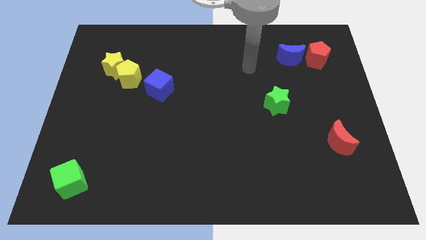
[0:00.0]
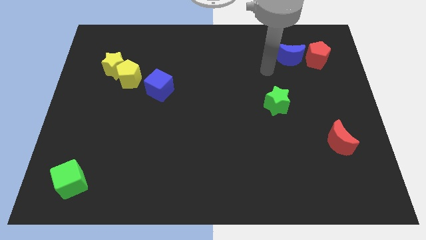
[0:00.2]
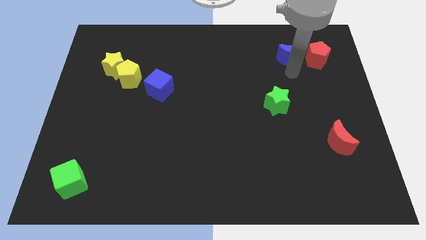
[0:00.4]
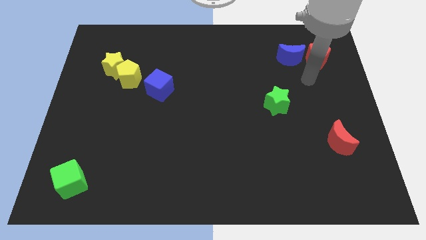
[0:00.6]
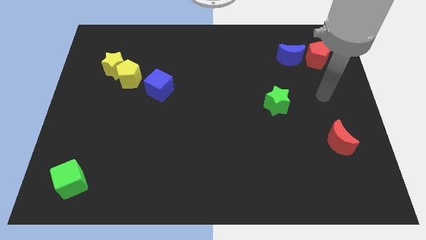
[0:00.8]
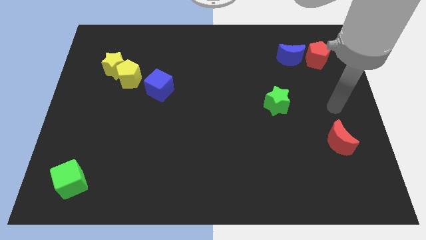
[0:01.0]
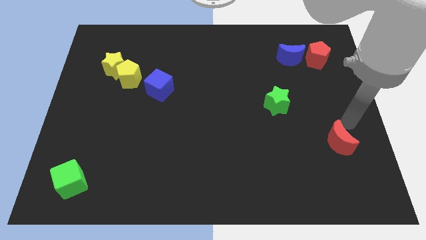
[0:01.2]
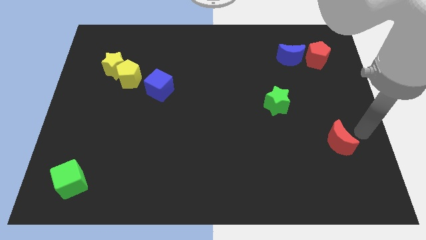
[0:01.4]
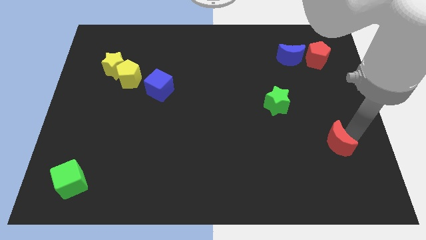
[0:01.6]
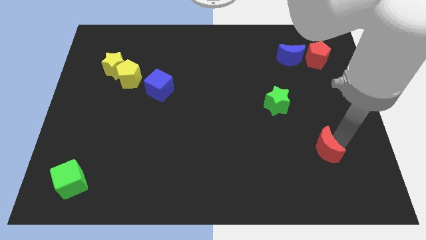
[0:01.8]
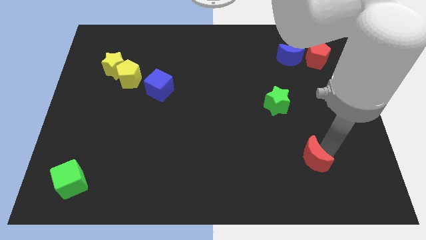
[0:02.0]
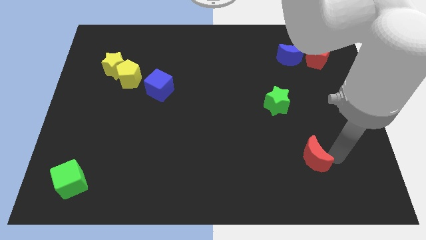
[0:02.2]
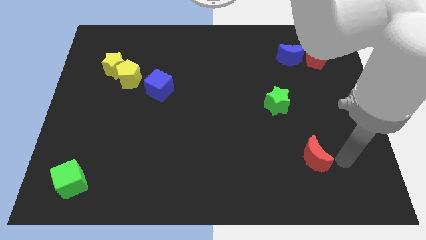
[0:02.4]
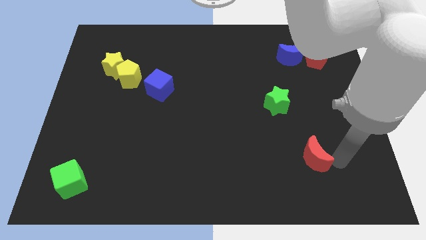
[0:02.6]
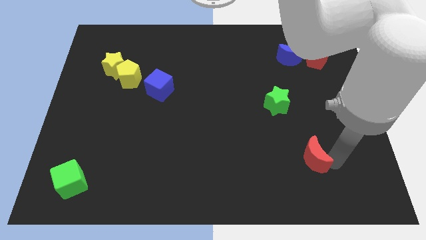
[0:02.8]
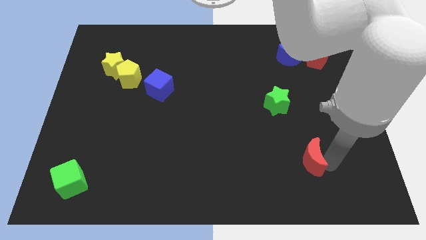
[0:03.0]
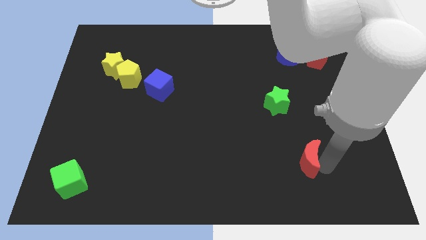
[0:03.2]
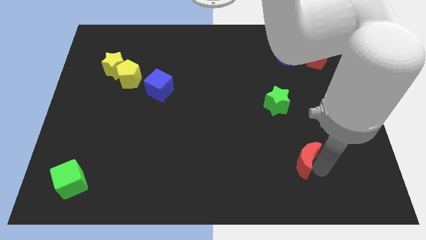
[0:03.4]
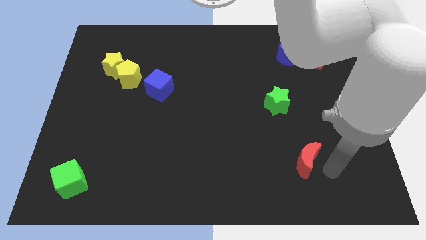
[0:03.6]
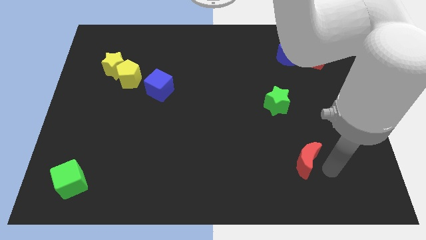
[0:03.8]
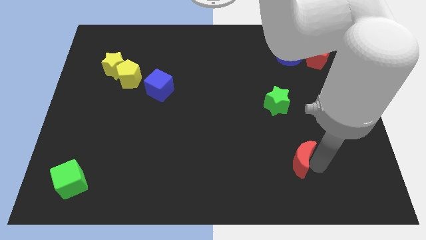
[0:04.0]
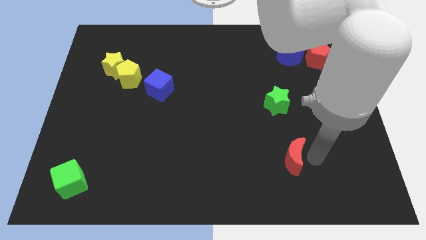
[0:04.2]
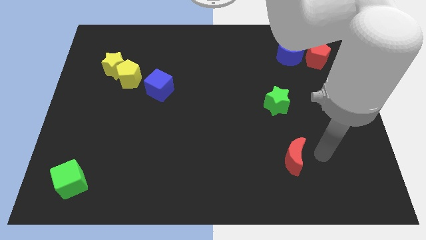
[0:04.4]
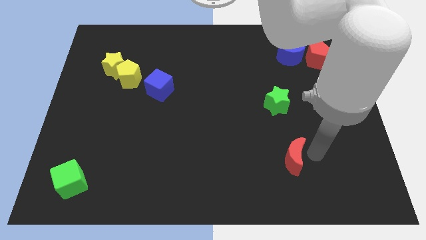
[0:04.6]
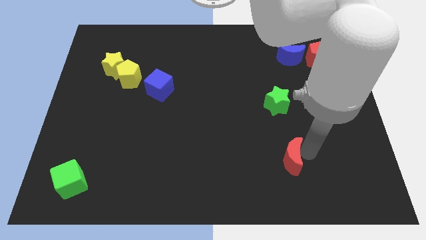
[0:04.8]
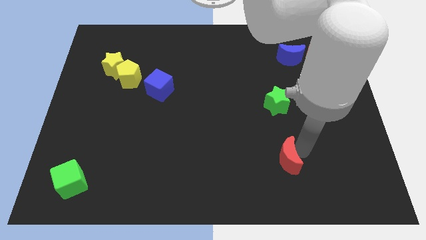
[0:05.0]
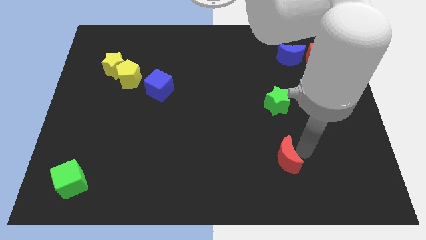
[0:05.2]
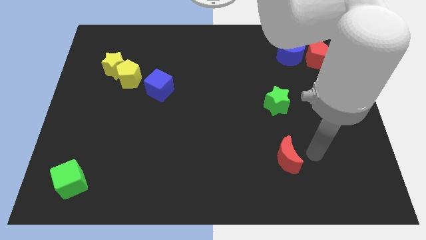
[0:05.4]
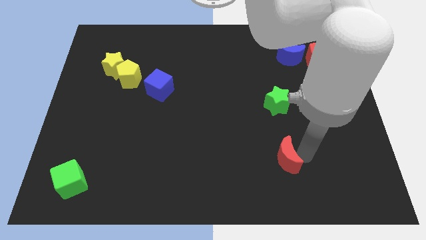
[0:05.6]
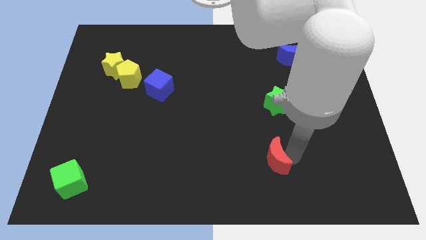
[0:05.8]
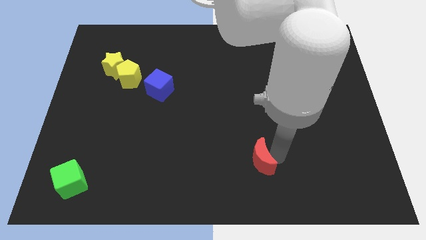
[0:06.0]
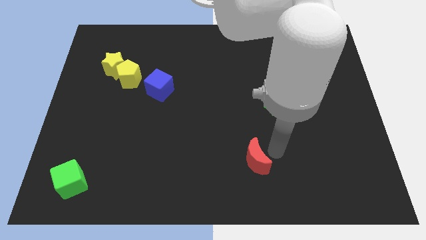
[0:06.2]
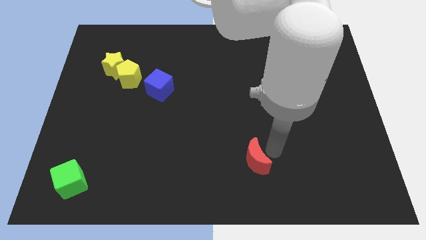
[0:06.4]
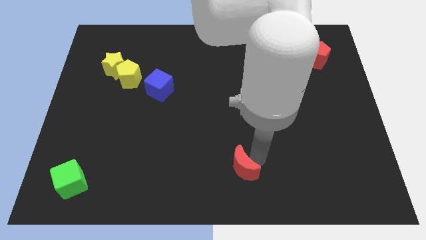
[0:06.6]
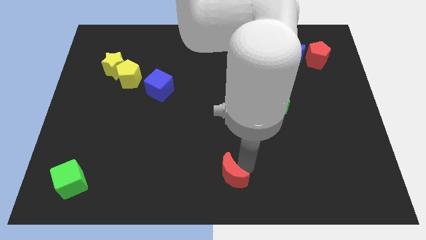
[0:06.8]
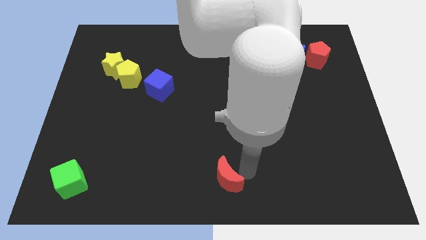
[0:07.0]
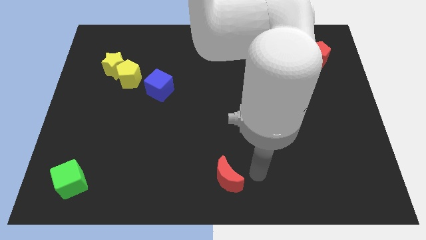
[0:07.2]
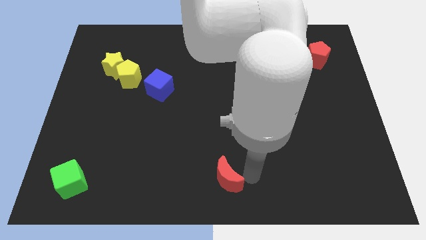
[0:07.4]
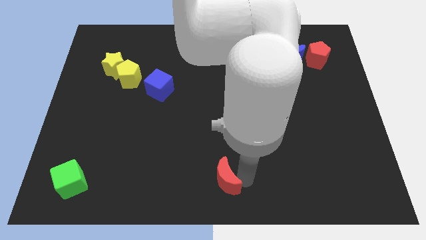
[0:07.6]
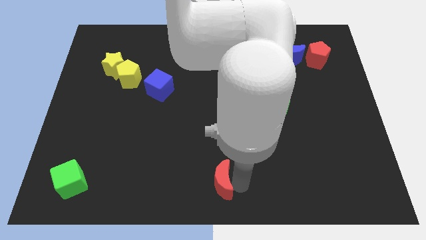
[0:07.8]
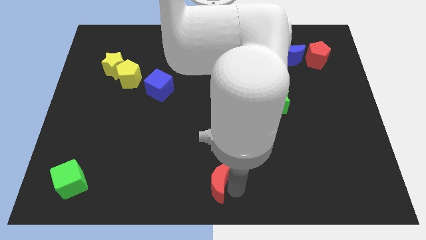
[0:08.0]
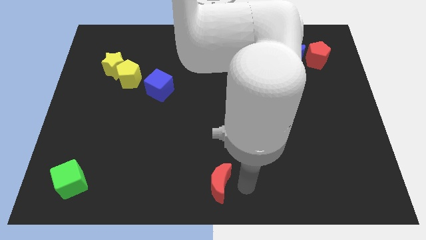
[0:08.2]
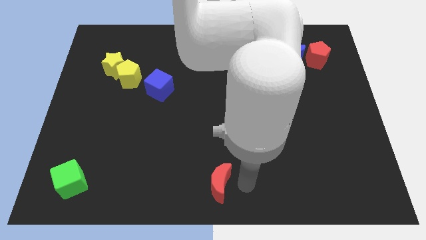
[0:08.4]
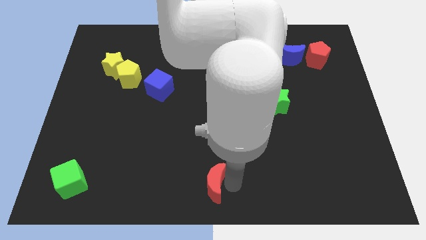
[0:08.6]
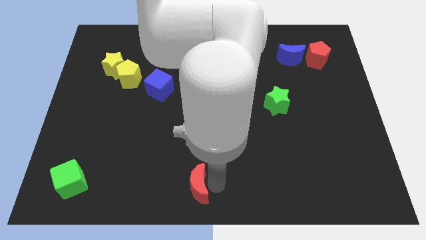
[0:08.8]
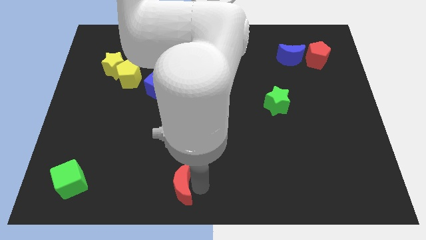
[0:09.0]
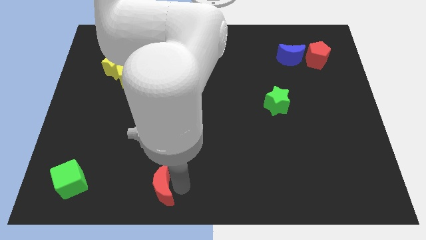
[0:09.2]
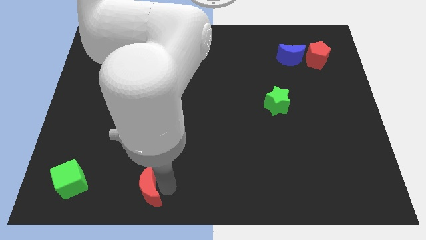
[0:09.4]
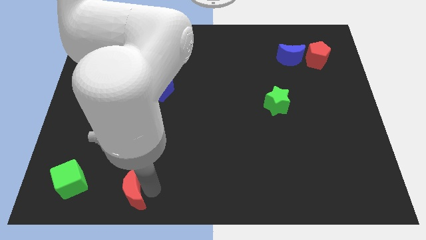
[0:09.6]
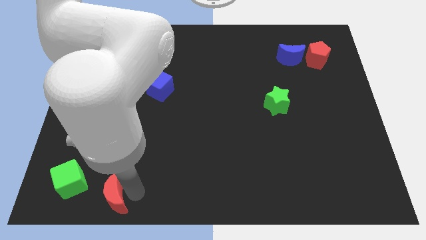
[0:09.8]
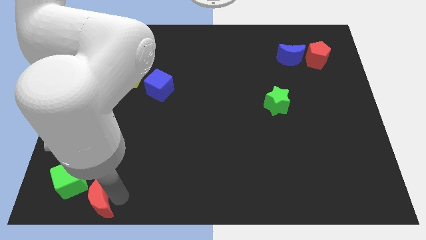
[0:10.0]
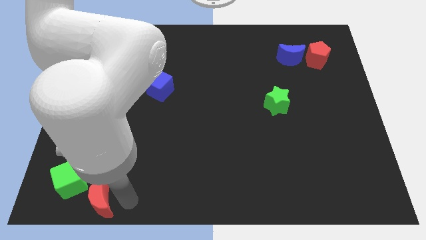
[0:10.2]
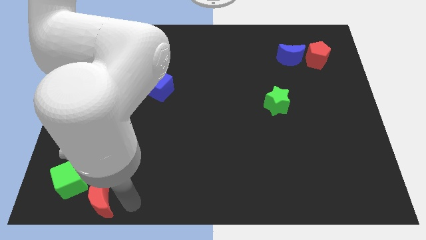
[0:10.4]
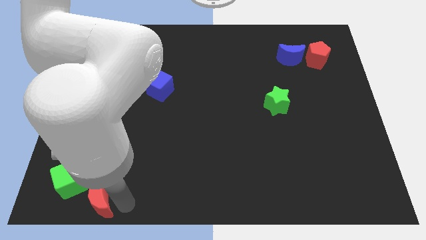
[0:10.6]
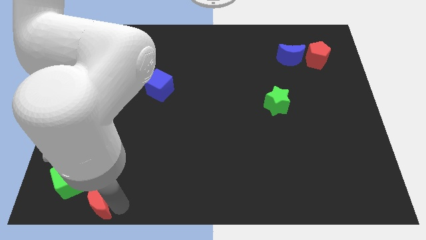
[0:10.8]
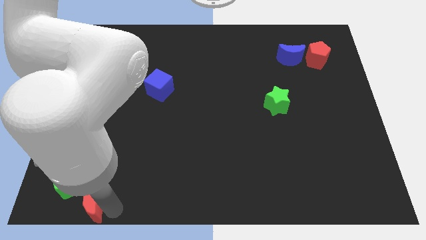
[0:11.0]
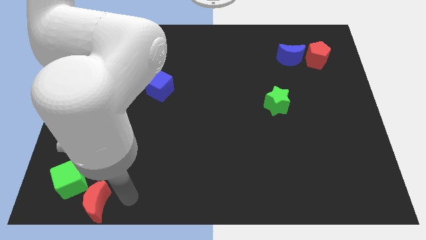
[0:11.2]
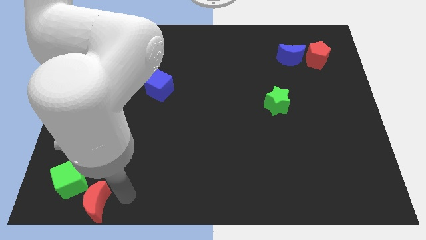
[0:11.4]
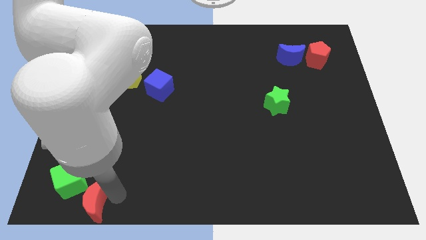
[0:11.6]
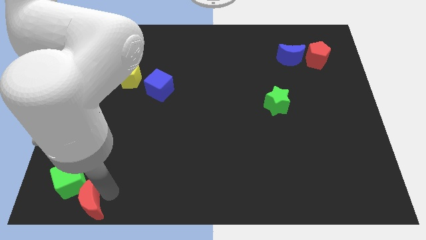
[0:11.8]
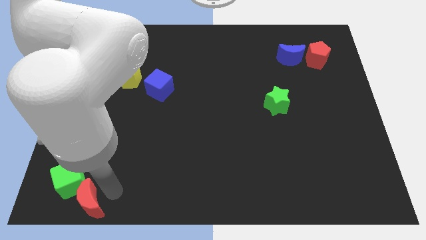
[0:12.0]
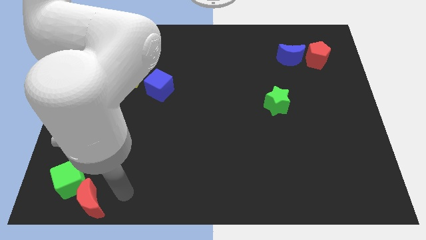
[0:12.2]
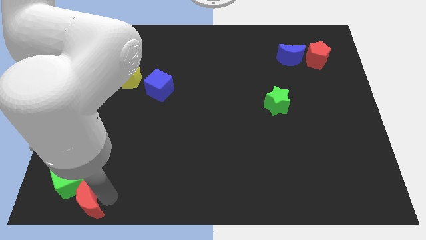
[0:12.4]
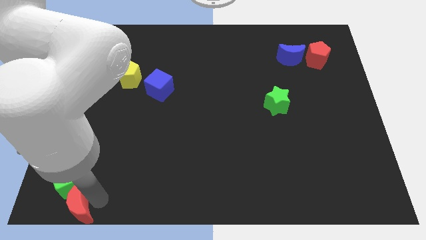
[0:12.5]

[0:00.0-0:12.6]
slide the red moon to the bottom left

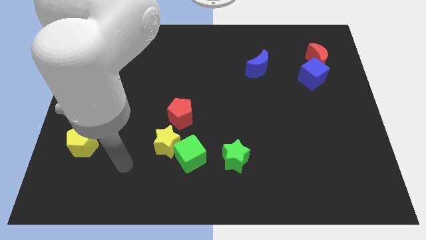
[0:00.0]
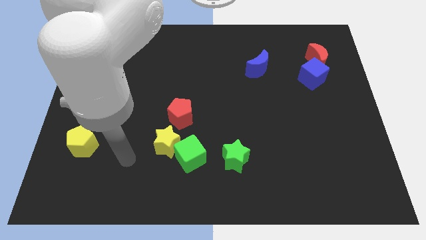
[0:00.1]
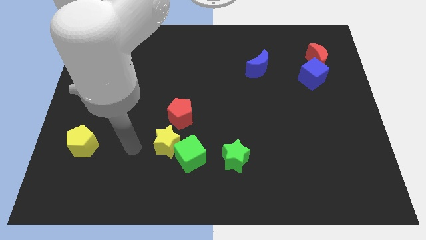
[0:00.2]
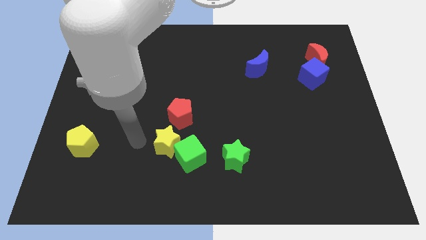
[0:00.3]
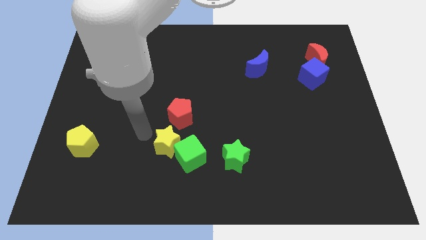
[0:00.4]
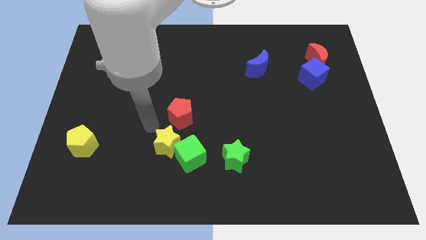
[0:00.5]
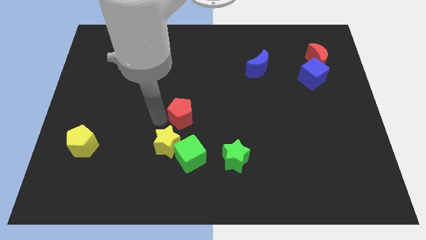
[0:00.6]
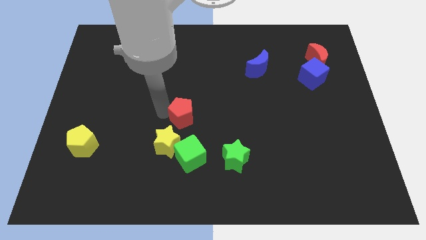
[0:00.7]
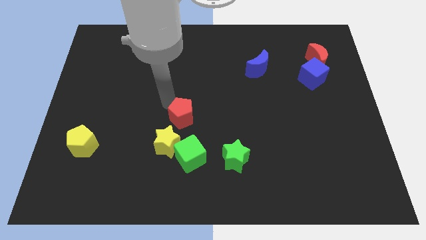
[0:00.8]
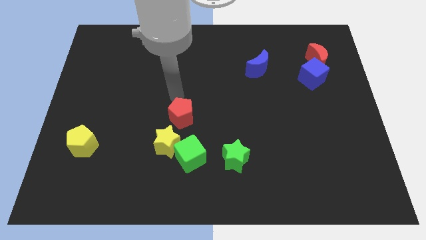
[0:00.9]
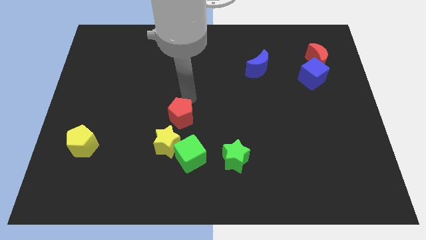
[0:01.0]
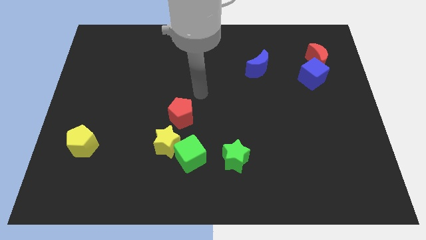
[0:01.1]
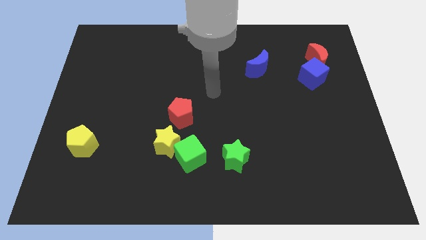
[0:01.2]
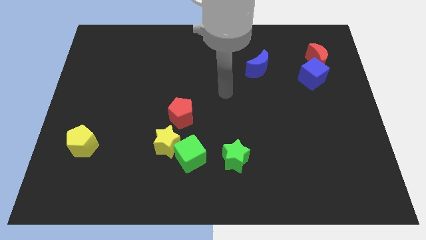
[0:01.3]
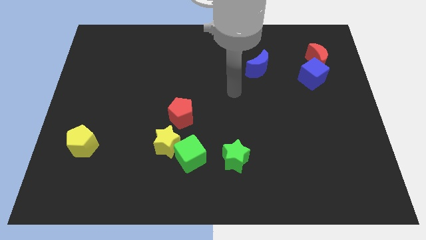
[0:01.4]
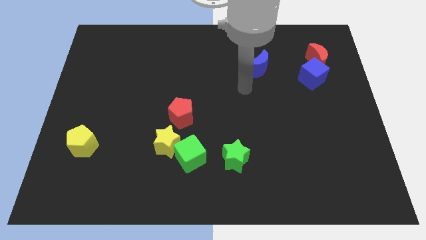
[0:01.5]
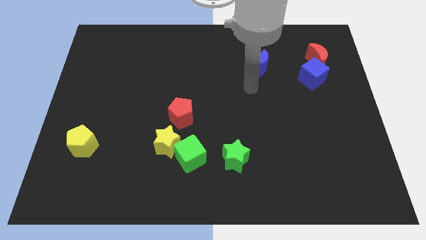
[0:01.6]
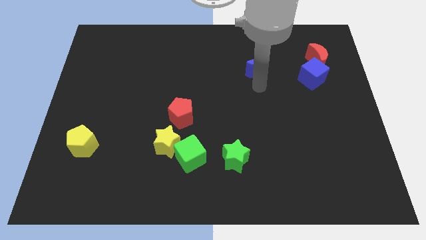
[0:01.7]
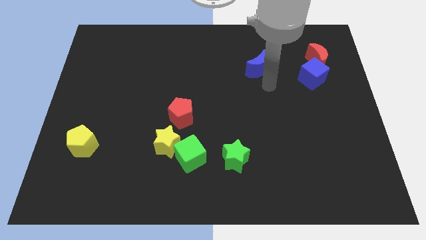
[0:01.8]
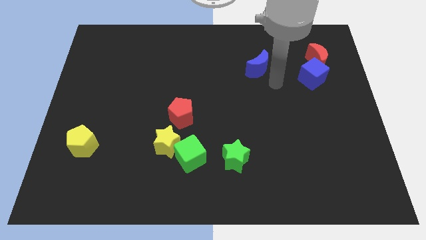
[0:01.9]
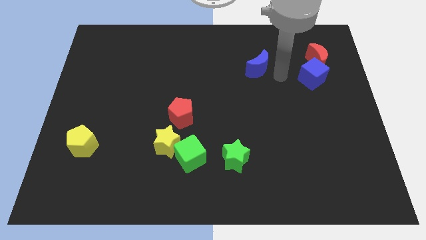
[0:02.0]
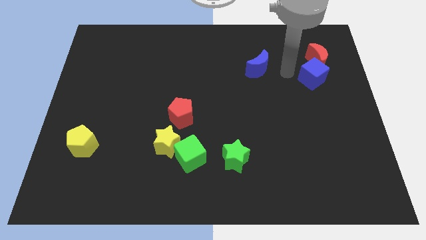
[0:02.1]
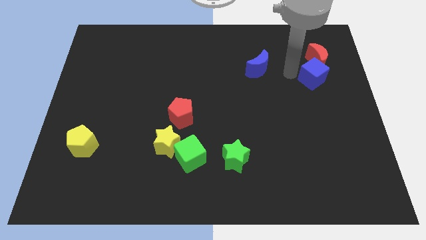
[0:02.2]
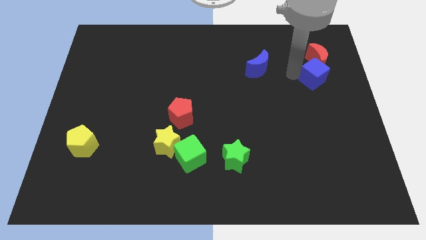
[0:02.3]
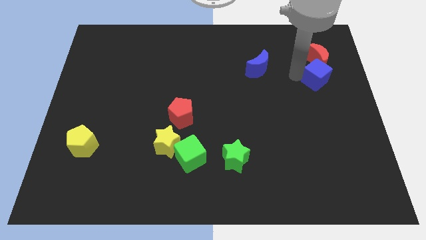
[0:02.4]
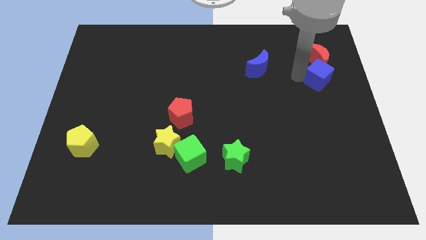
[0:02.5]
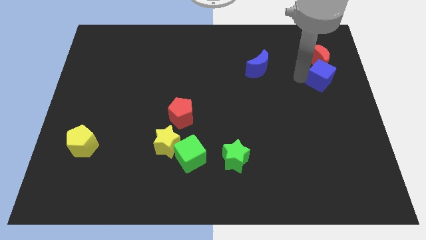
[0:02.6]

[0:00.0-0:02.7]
put the blue cube to the center right
